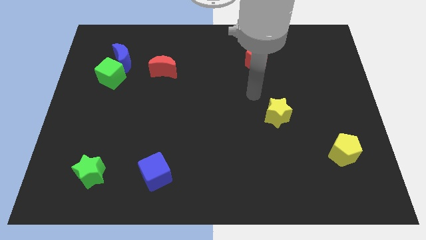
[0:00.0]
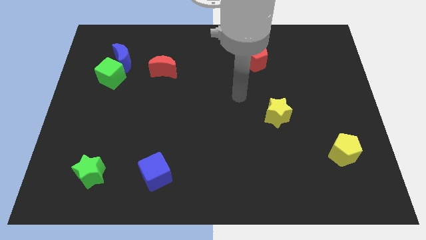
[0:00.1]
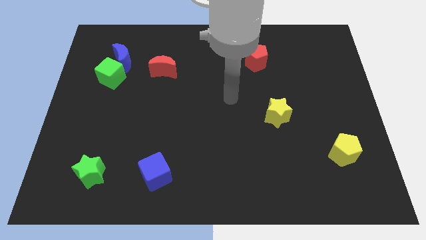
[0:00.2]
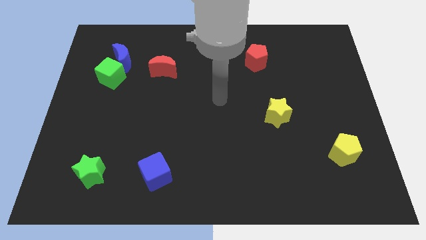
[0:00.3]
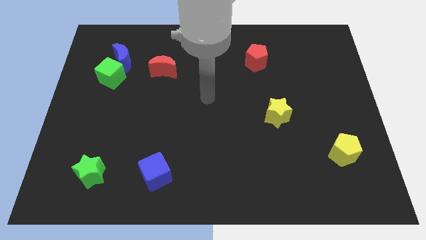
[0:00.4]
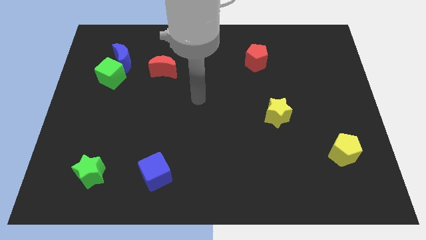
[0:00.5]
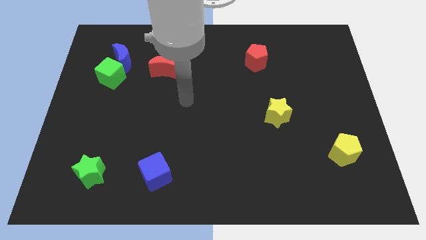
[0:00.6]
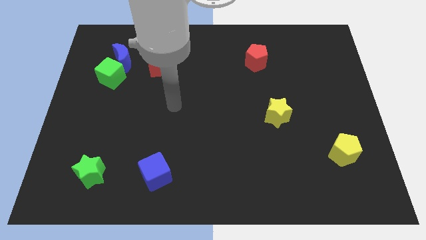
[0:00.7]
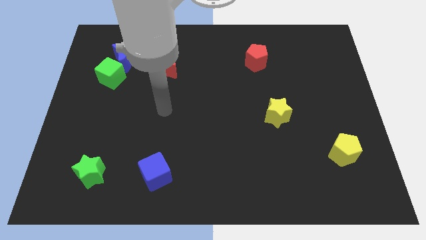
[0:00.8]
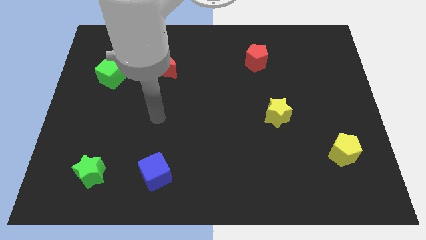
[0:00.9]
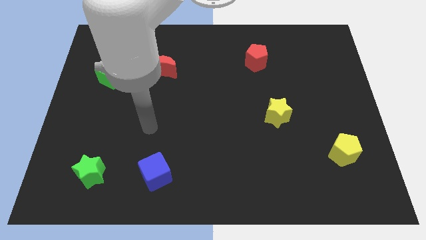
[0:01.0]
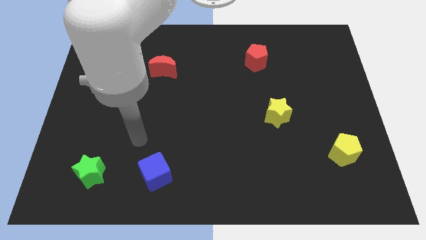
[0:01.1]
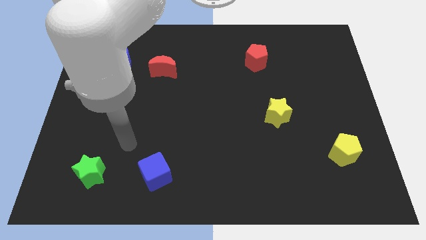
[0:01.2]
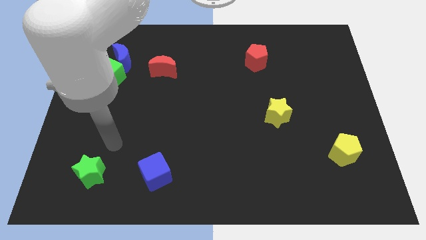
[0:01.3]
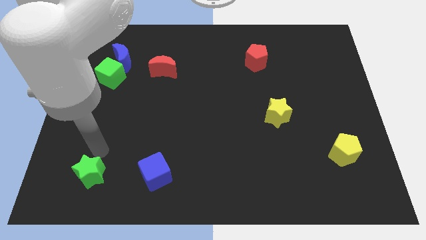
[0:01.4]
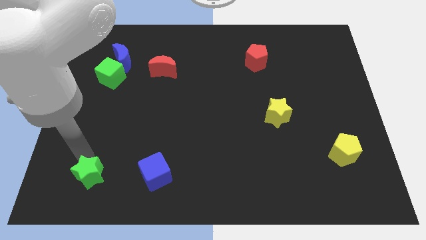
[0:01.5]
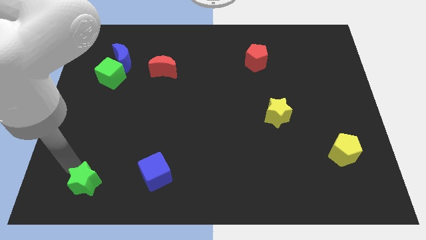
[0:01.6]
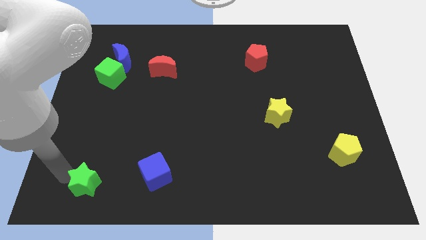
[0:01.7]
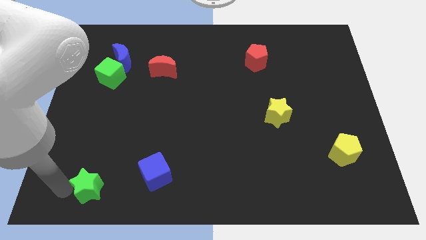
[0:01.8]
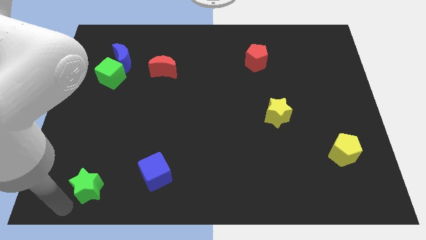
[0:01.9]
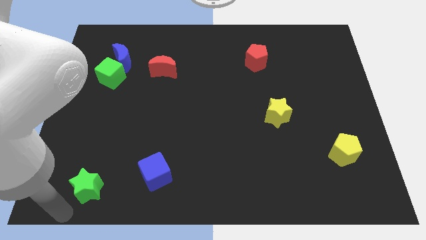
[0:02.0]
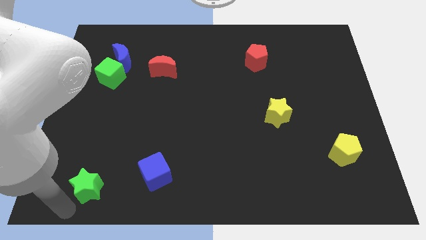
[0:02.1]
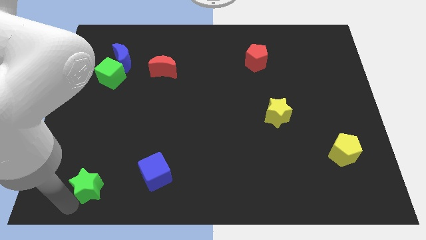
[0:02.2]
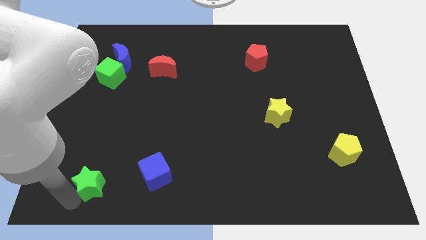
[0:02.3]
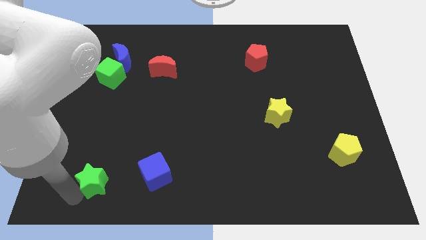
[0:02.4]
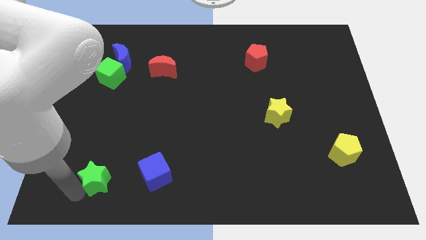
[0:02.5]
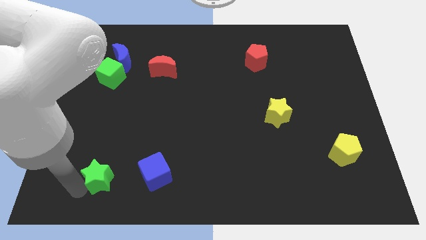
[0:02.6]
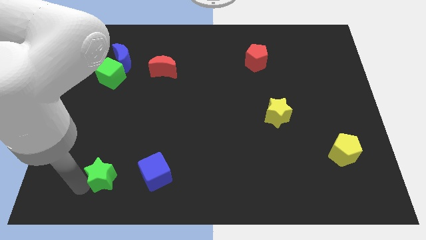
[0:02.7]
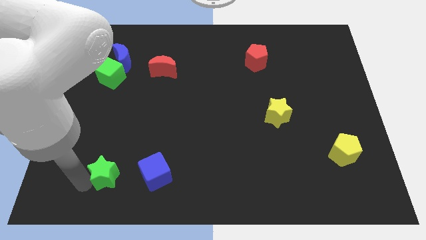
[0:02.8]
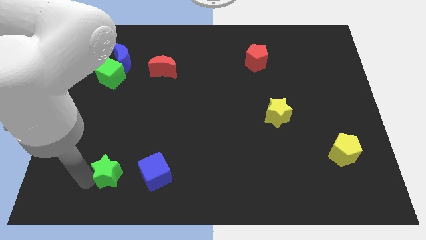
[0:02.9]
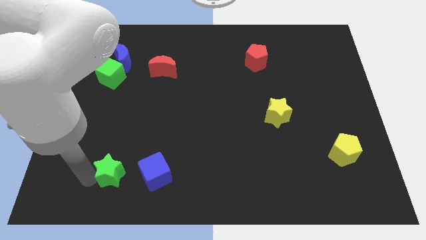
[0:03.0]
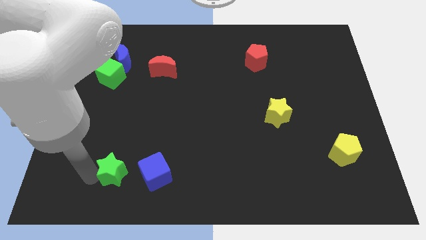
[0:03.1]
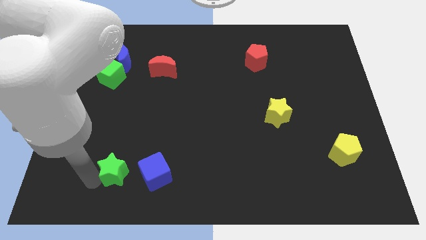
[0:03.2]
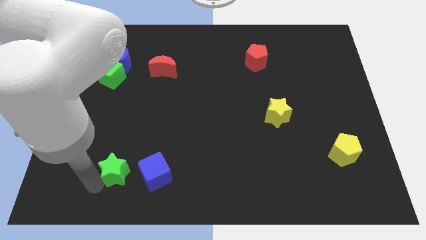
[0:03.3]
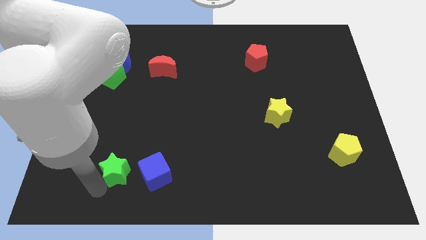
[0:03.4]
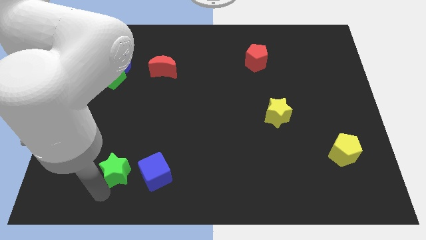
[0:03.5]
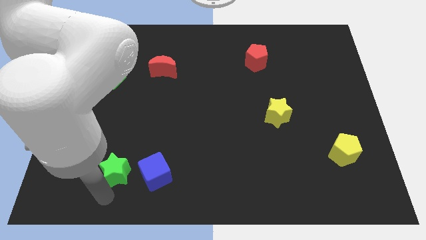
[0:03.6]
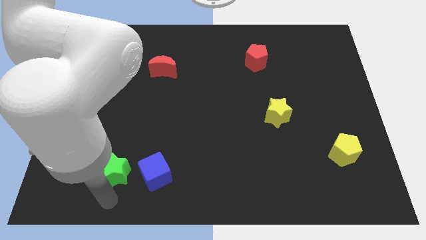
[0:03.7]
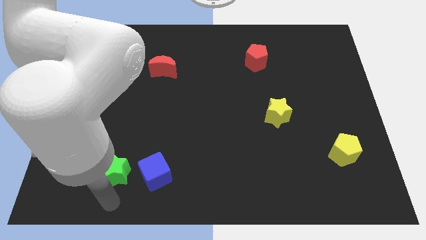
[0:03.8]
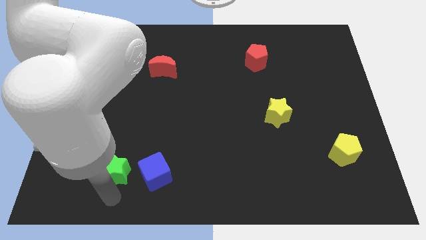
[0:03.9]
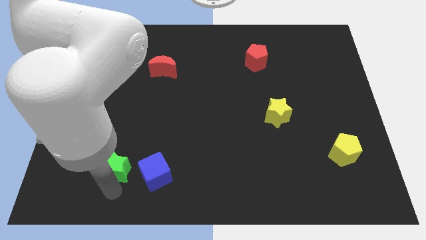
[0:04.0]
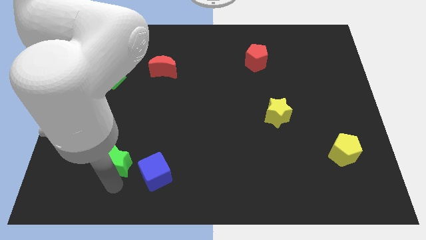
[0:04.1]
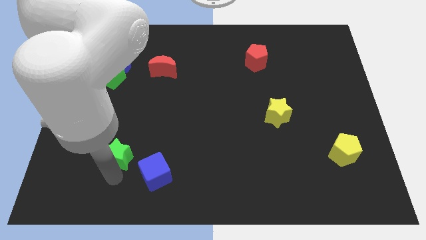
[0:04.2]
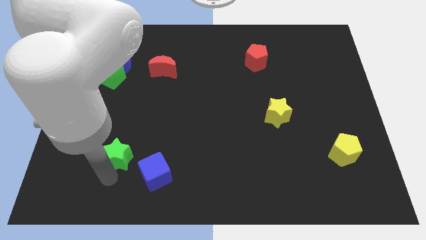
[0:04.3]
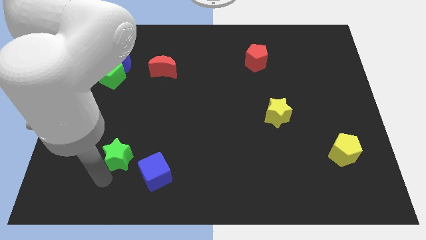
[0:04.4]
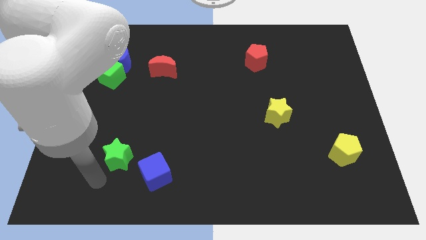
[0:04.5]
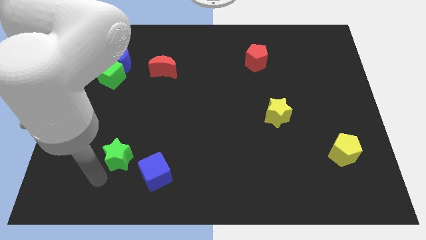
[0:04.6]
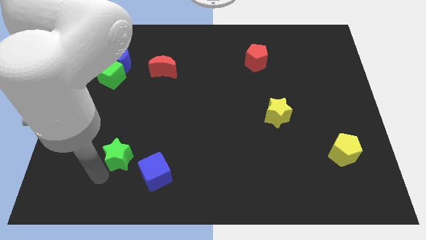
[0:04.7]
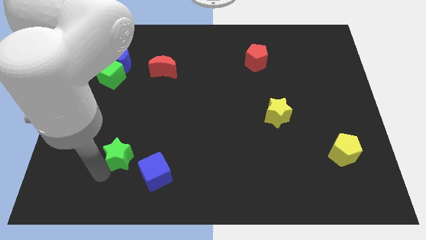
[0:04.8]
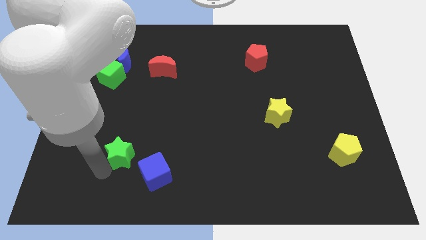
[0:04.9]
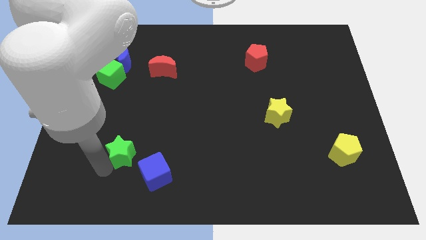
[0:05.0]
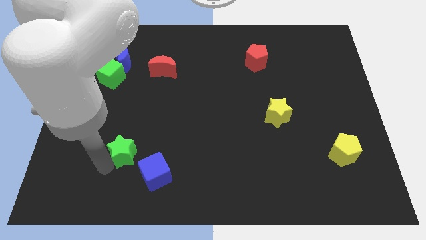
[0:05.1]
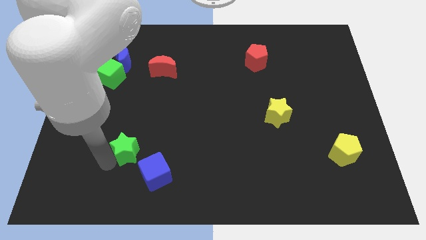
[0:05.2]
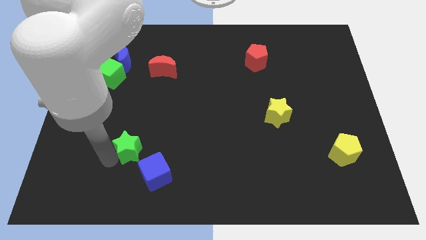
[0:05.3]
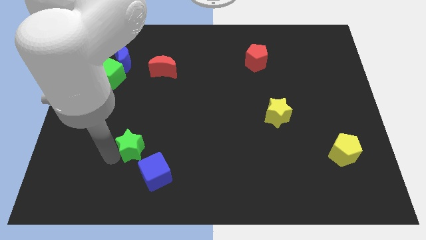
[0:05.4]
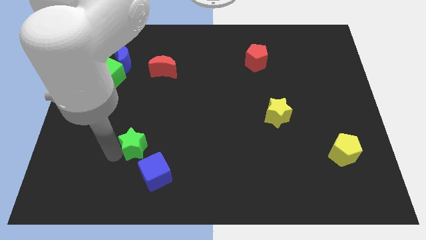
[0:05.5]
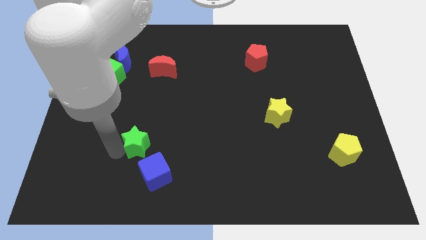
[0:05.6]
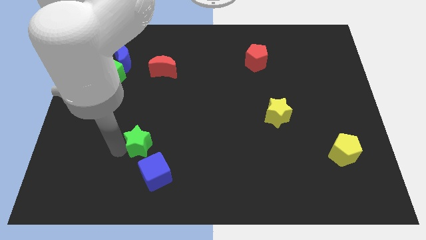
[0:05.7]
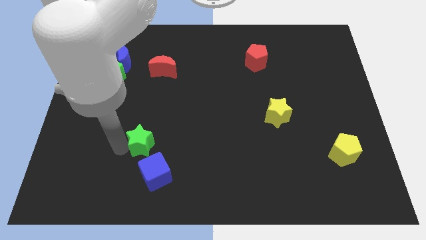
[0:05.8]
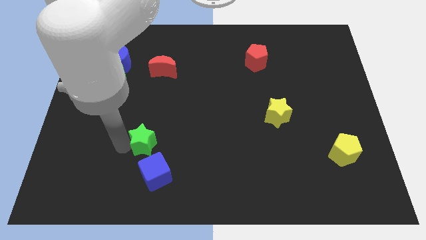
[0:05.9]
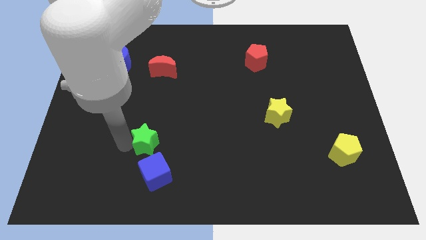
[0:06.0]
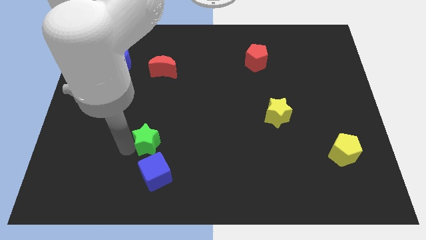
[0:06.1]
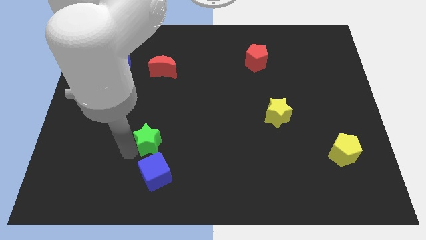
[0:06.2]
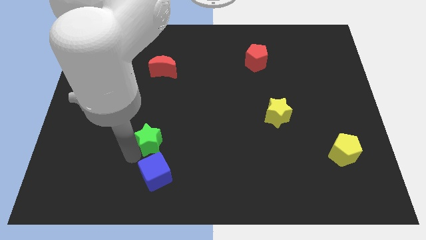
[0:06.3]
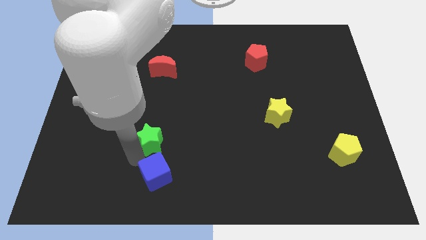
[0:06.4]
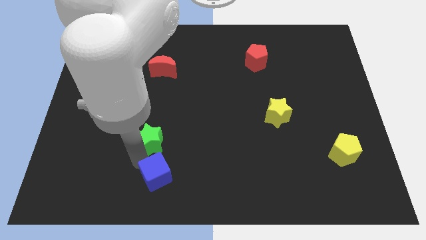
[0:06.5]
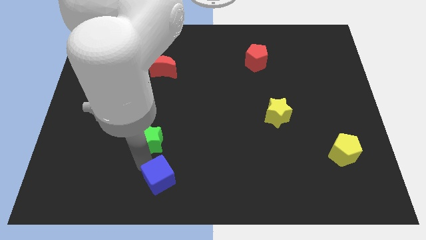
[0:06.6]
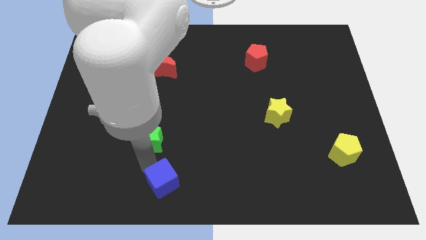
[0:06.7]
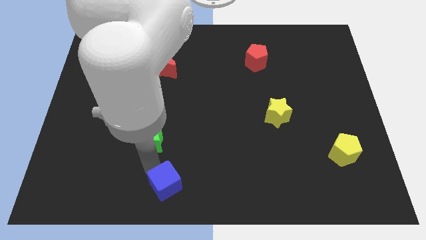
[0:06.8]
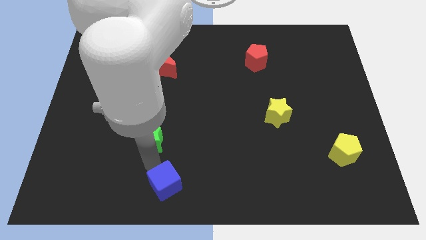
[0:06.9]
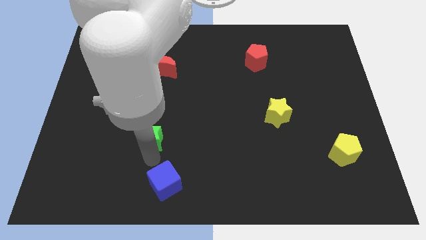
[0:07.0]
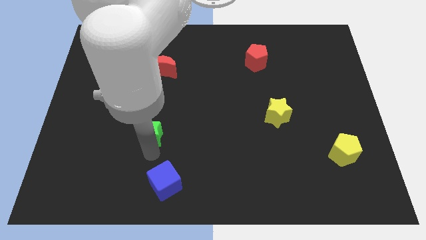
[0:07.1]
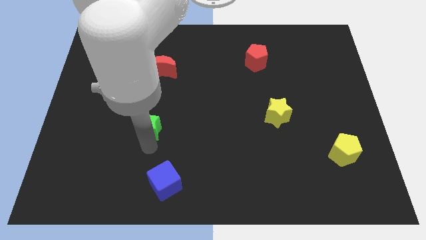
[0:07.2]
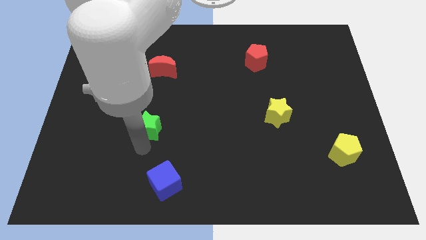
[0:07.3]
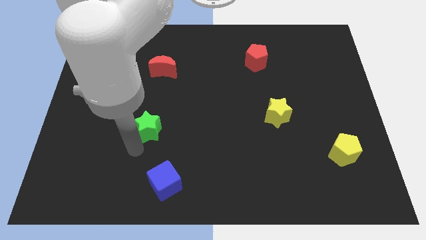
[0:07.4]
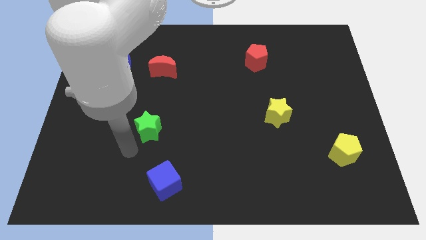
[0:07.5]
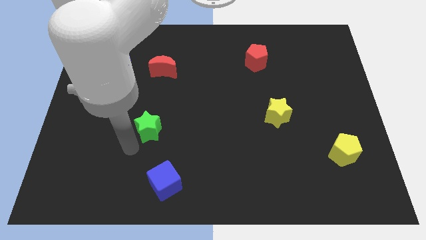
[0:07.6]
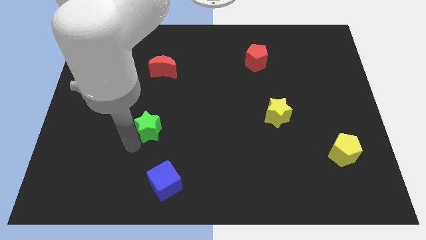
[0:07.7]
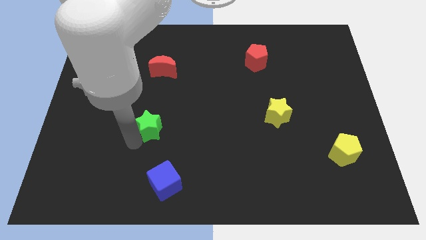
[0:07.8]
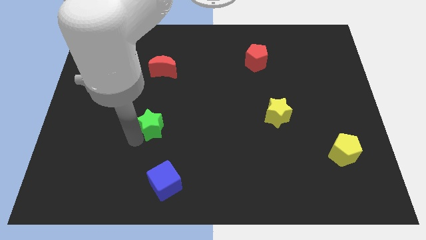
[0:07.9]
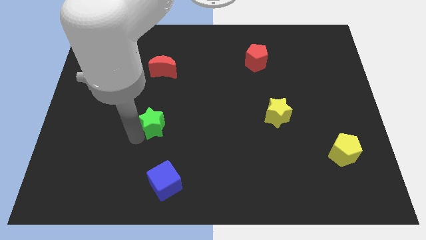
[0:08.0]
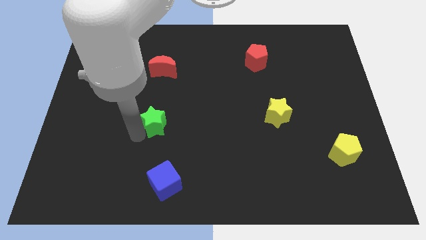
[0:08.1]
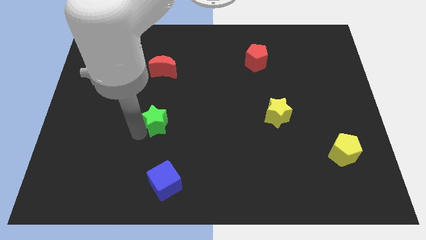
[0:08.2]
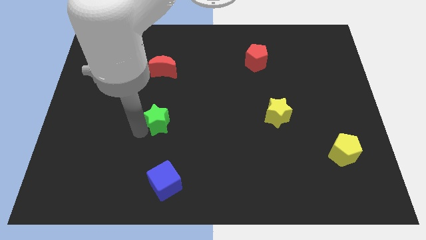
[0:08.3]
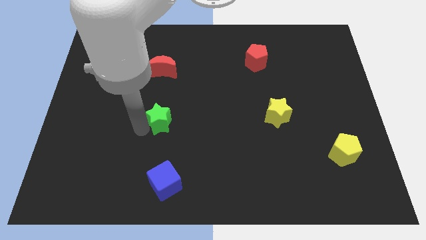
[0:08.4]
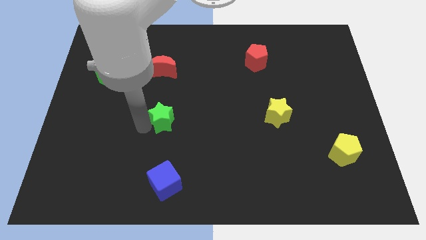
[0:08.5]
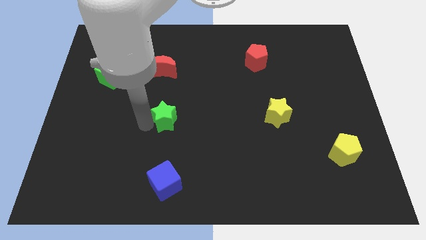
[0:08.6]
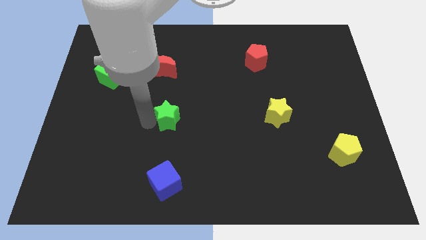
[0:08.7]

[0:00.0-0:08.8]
move the green star up and then right
